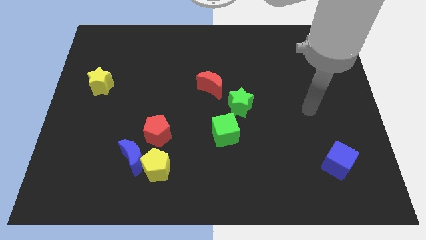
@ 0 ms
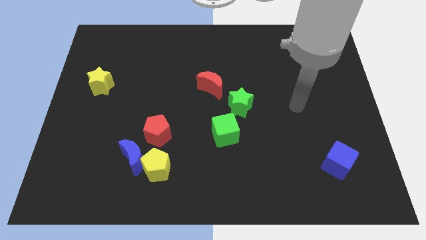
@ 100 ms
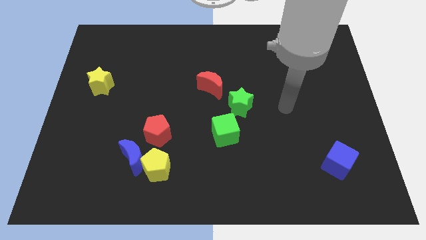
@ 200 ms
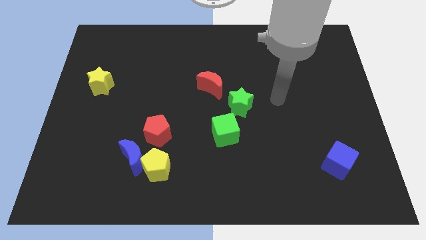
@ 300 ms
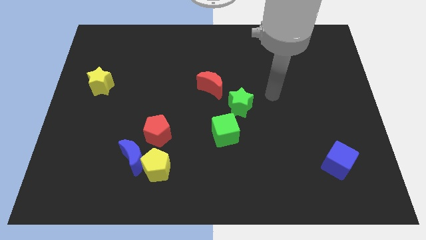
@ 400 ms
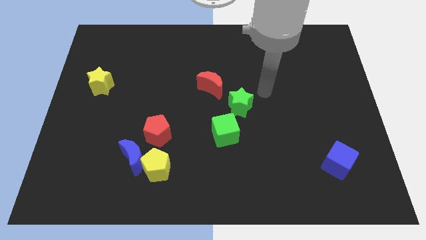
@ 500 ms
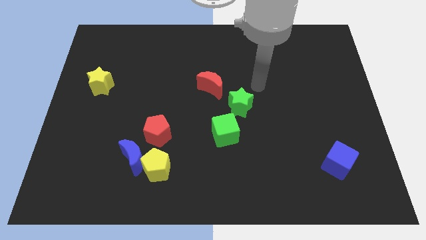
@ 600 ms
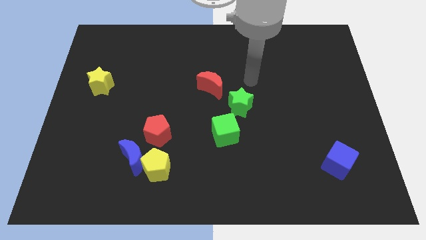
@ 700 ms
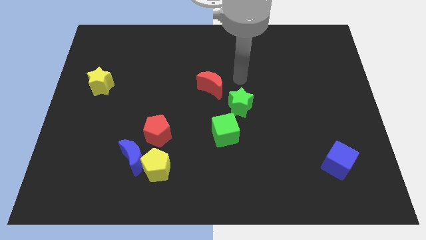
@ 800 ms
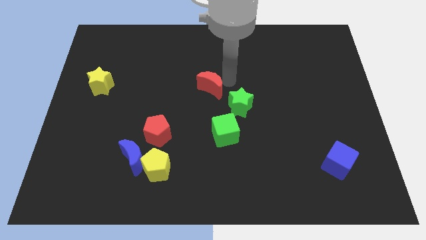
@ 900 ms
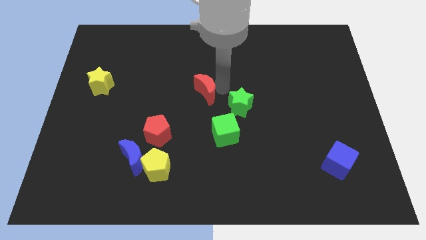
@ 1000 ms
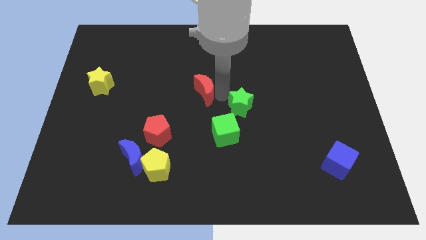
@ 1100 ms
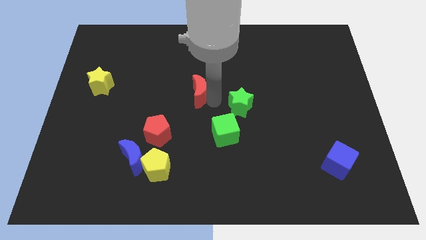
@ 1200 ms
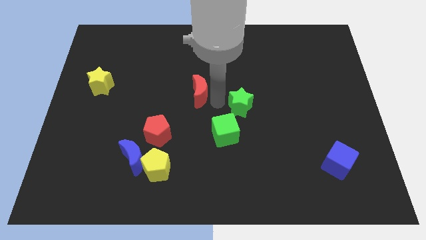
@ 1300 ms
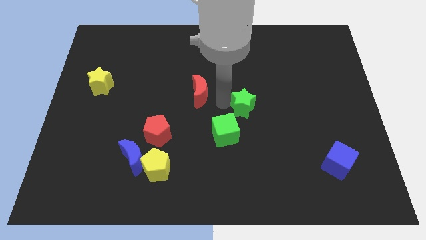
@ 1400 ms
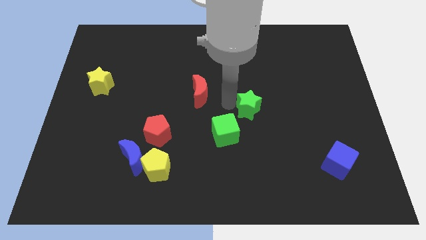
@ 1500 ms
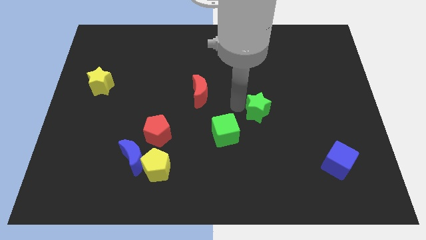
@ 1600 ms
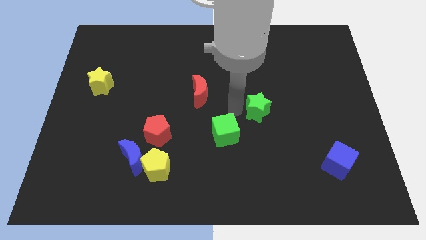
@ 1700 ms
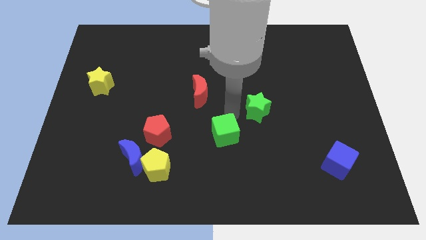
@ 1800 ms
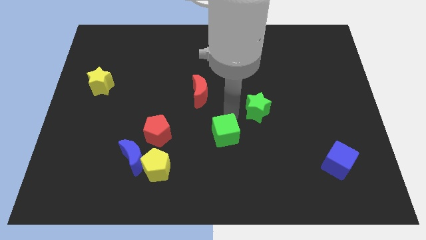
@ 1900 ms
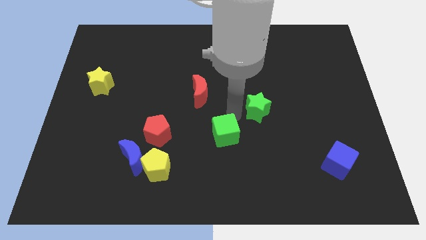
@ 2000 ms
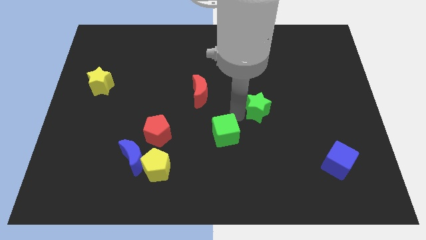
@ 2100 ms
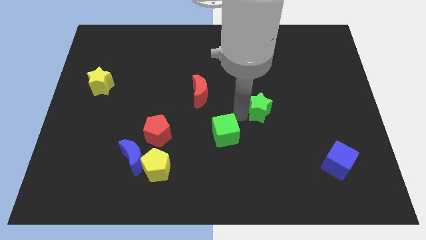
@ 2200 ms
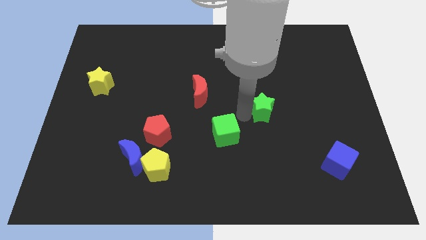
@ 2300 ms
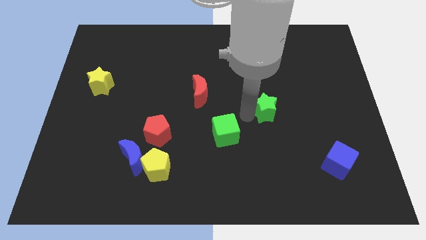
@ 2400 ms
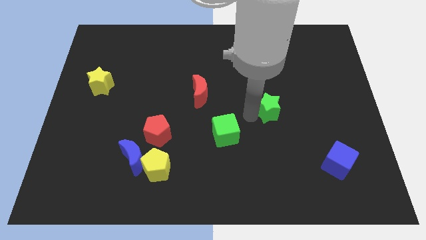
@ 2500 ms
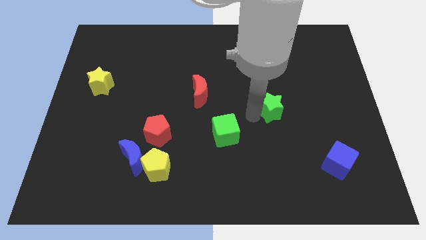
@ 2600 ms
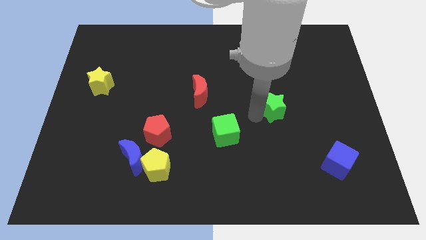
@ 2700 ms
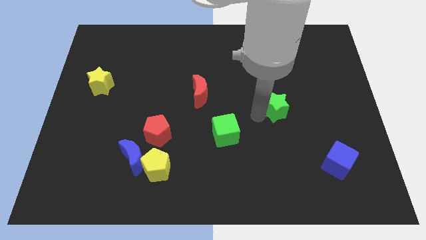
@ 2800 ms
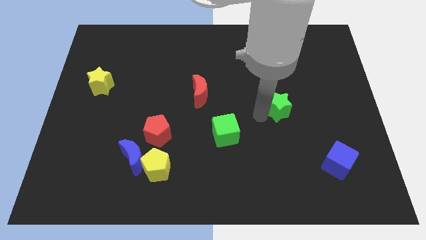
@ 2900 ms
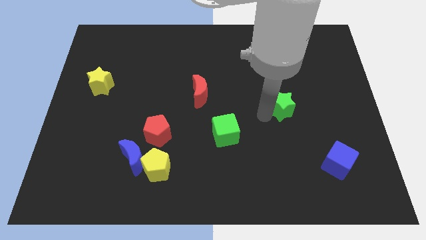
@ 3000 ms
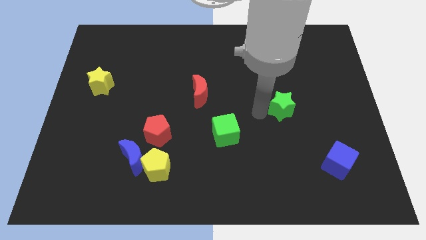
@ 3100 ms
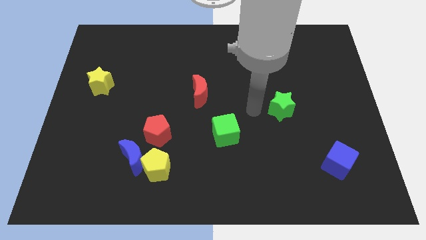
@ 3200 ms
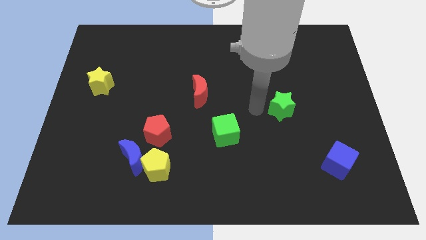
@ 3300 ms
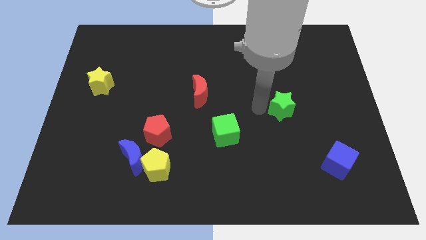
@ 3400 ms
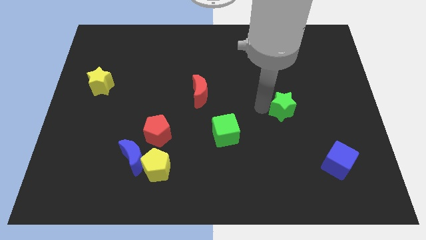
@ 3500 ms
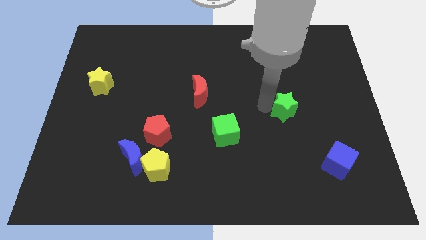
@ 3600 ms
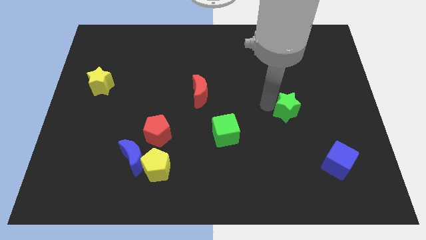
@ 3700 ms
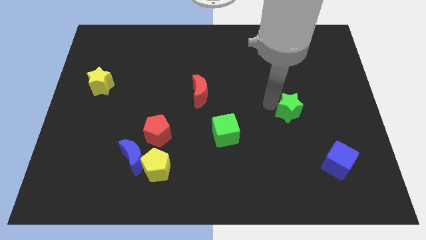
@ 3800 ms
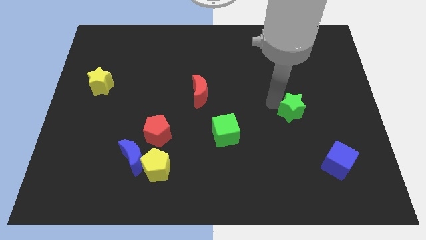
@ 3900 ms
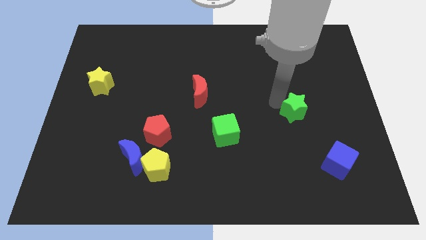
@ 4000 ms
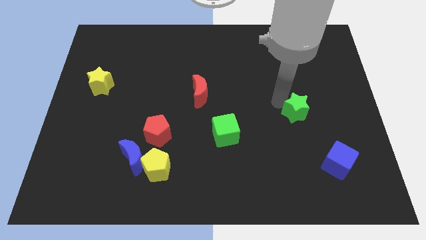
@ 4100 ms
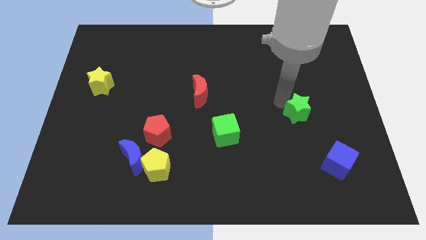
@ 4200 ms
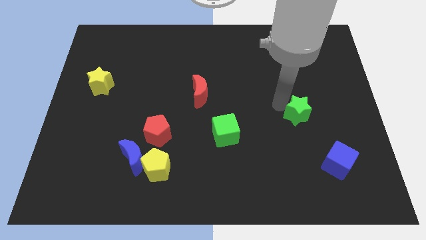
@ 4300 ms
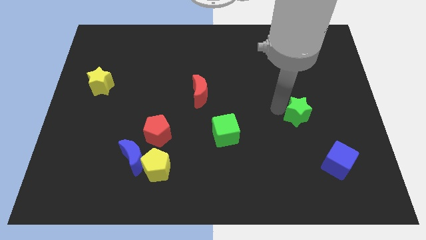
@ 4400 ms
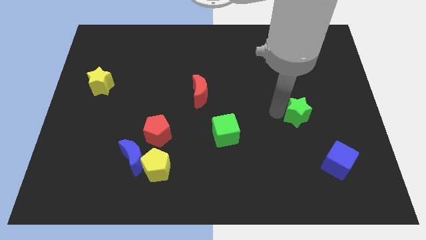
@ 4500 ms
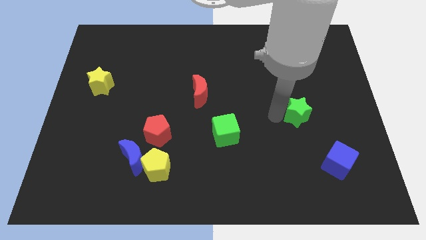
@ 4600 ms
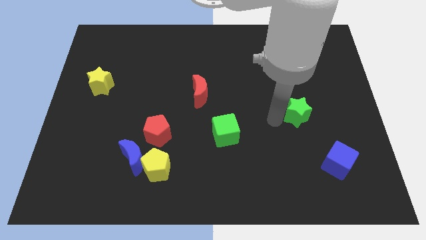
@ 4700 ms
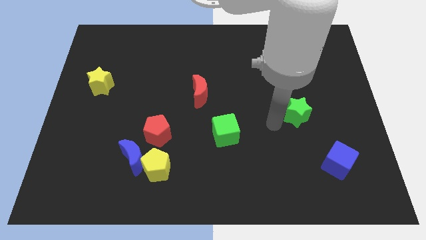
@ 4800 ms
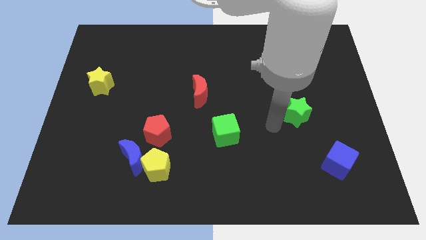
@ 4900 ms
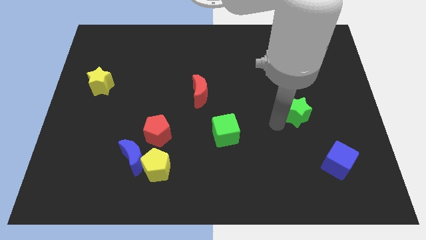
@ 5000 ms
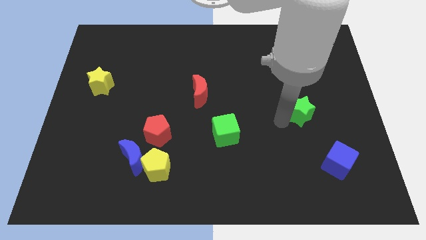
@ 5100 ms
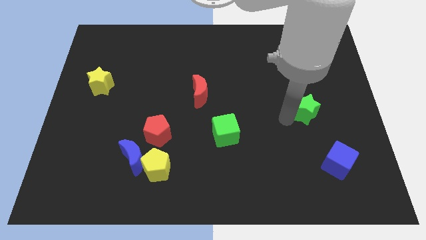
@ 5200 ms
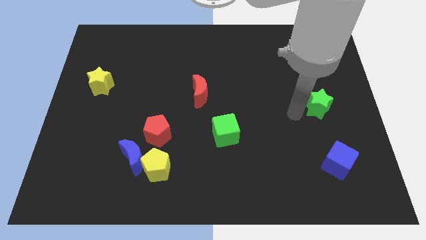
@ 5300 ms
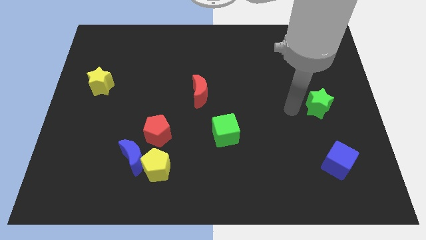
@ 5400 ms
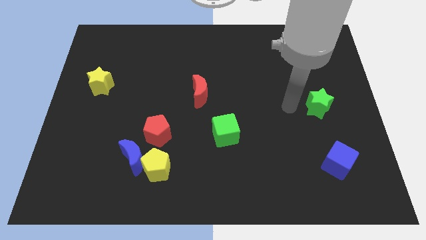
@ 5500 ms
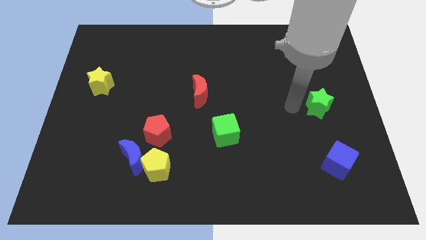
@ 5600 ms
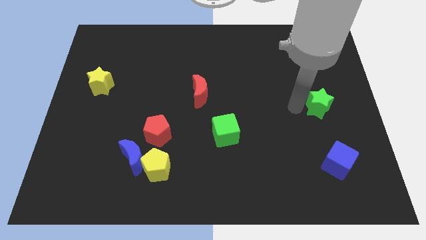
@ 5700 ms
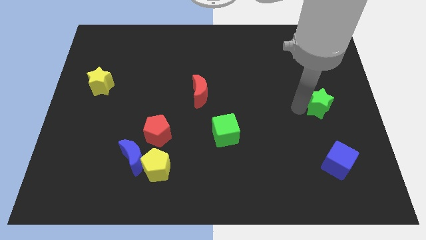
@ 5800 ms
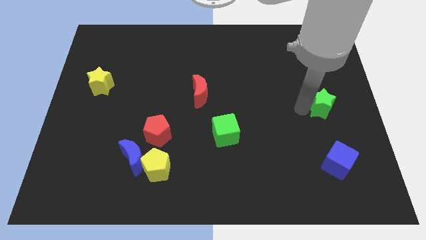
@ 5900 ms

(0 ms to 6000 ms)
push the green star to the right side of the board
